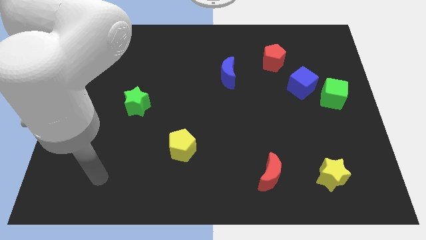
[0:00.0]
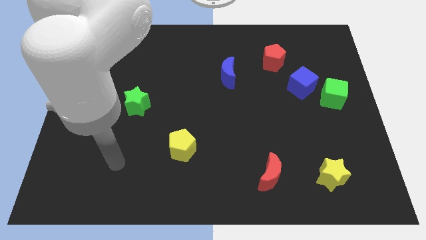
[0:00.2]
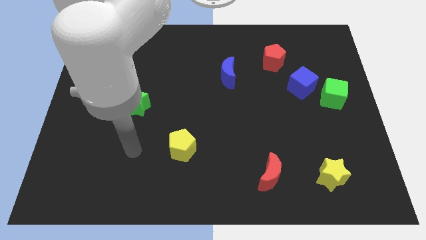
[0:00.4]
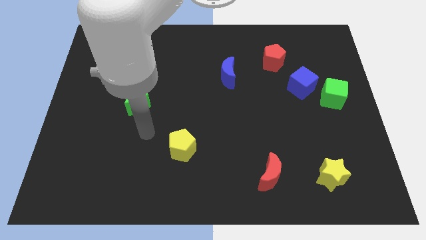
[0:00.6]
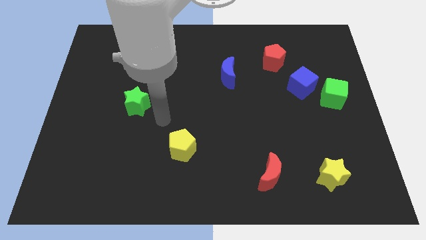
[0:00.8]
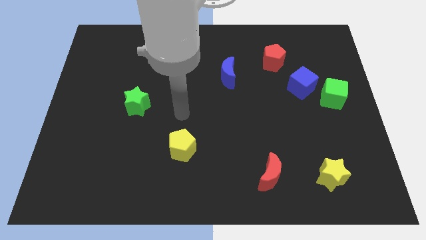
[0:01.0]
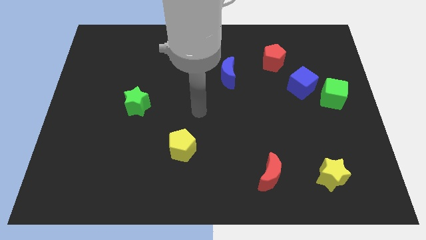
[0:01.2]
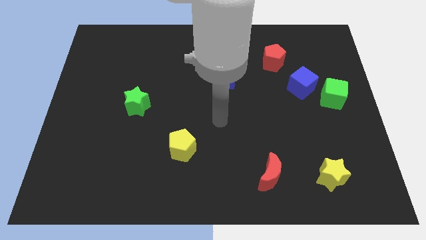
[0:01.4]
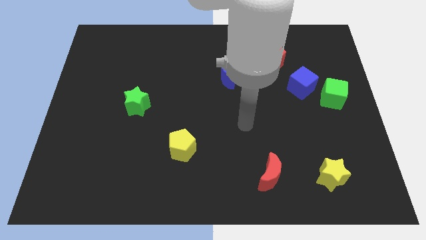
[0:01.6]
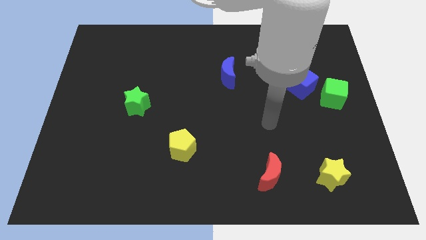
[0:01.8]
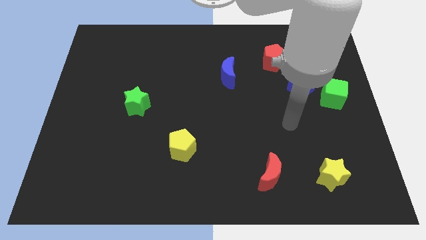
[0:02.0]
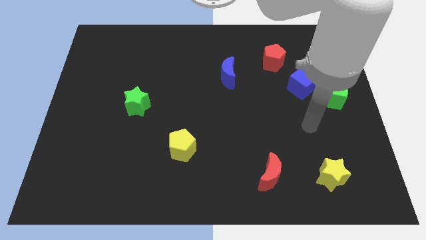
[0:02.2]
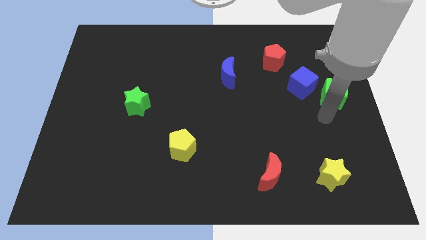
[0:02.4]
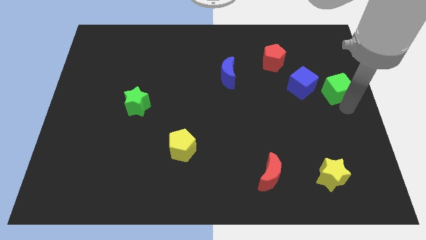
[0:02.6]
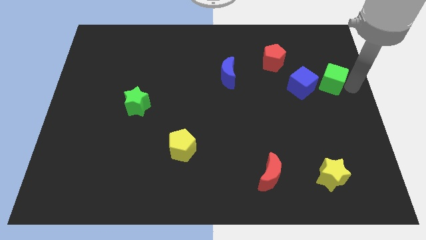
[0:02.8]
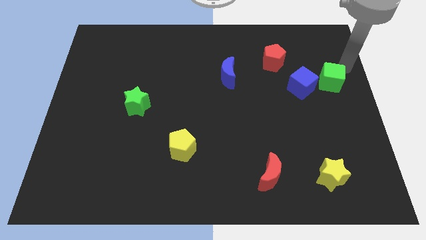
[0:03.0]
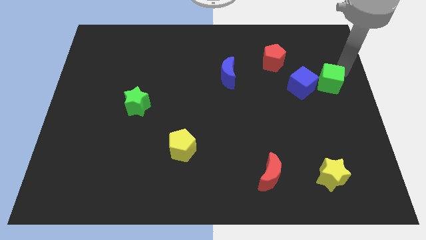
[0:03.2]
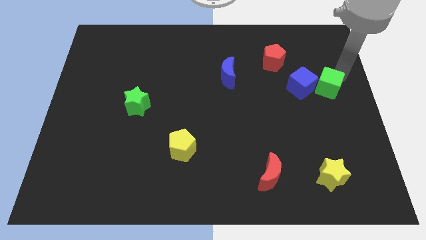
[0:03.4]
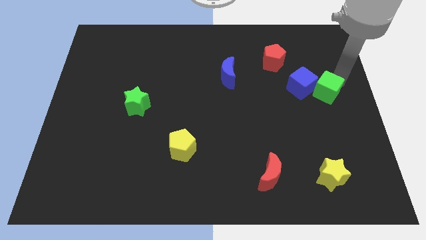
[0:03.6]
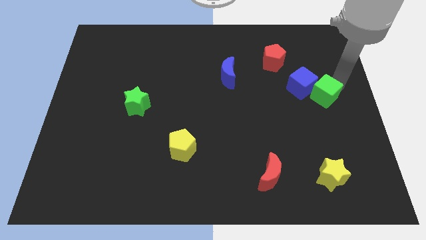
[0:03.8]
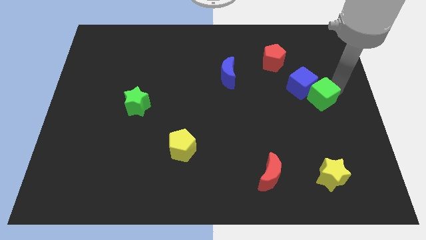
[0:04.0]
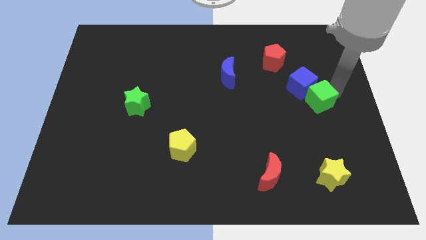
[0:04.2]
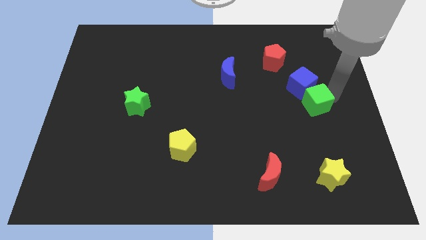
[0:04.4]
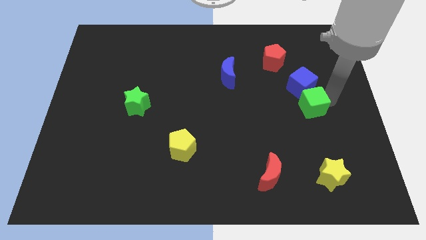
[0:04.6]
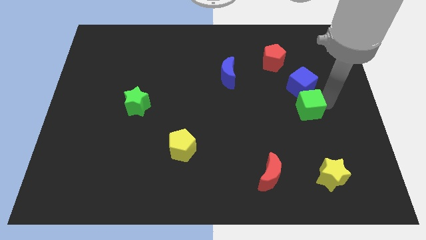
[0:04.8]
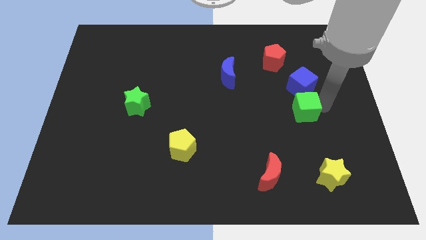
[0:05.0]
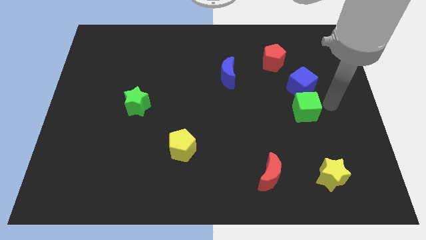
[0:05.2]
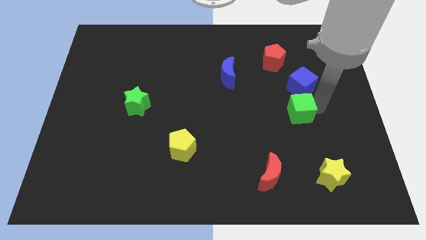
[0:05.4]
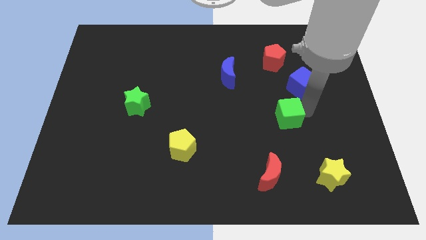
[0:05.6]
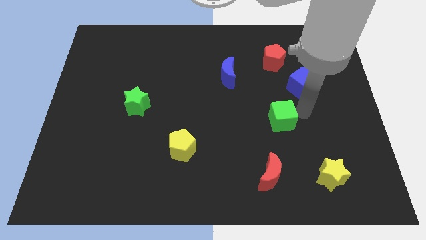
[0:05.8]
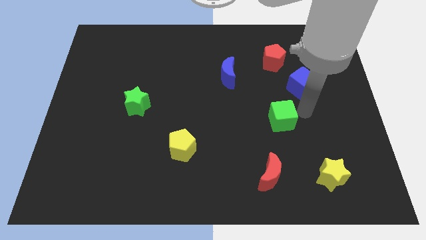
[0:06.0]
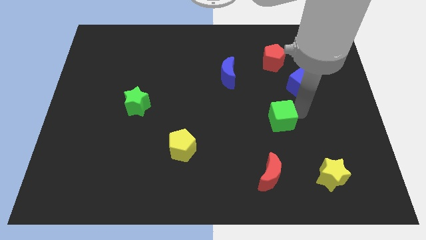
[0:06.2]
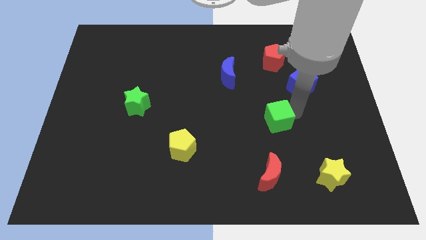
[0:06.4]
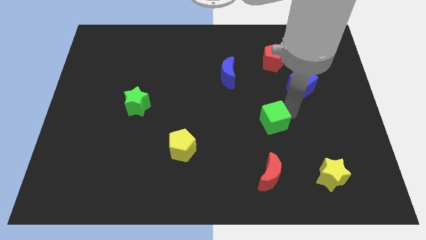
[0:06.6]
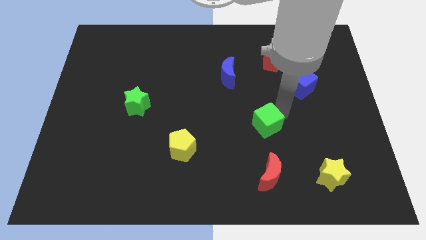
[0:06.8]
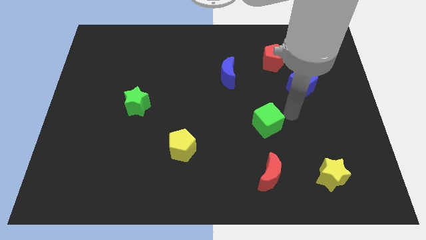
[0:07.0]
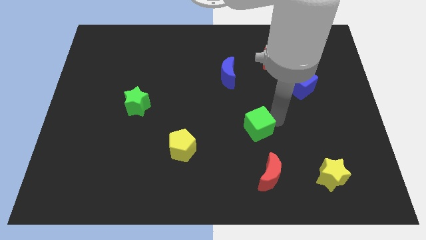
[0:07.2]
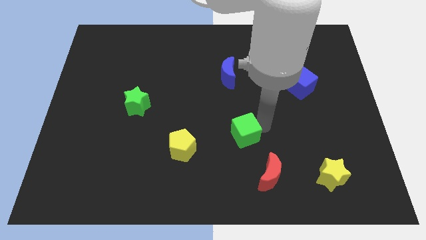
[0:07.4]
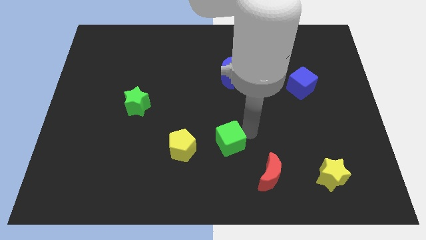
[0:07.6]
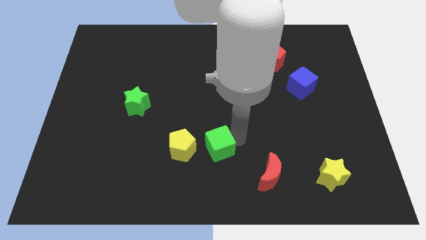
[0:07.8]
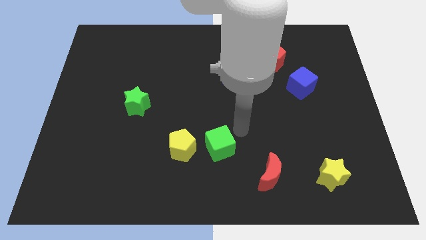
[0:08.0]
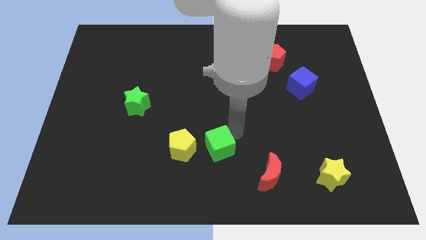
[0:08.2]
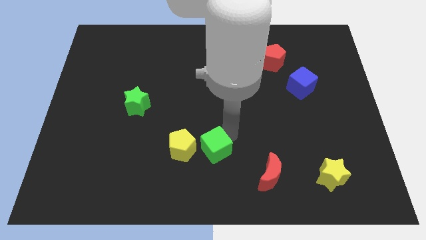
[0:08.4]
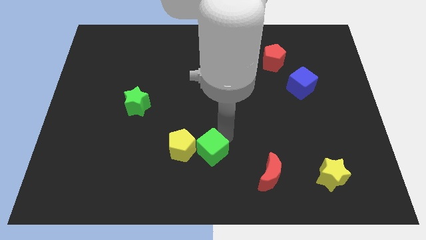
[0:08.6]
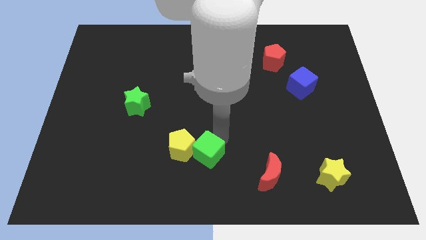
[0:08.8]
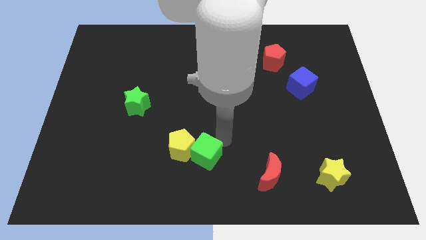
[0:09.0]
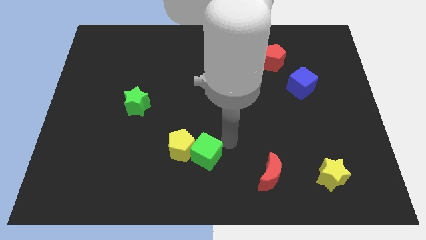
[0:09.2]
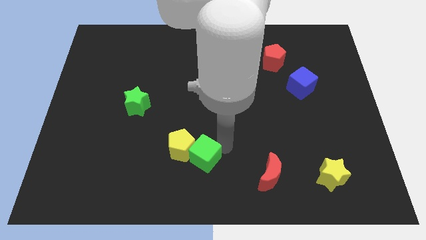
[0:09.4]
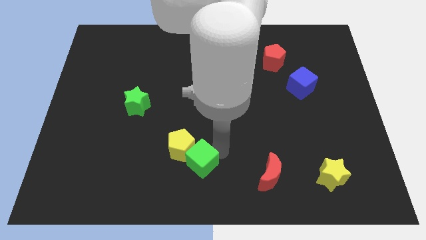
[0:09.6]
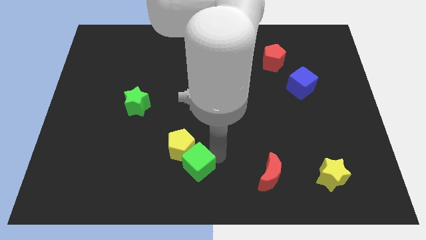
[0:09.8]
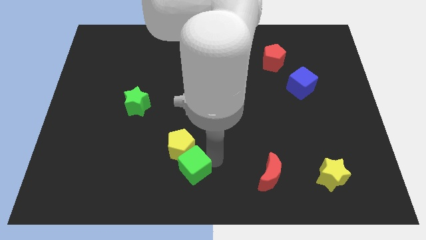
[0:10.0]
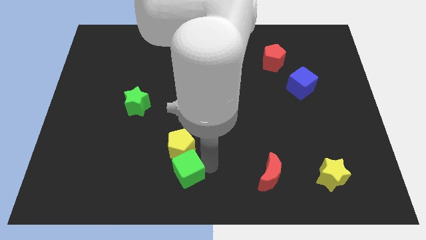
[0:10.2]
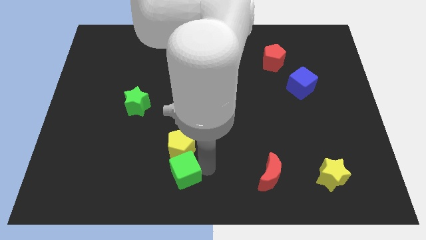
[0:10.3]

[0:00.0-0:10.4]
slide the green cube to the bottom left of the yellow pentagon

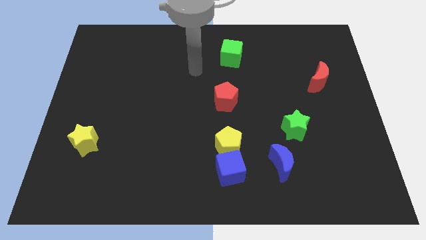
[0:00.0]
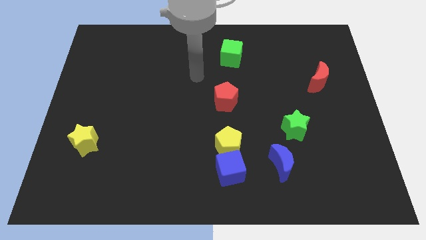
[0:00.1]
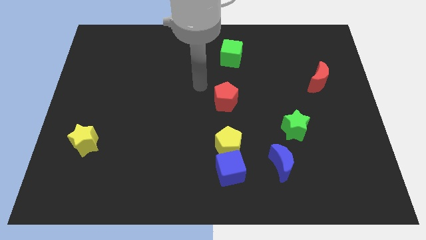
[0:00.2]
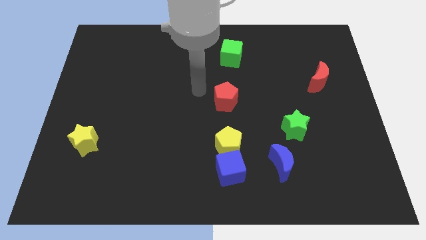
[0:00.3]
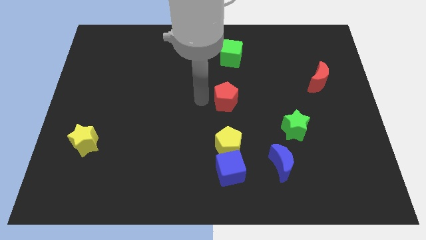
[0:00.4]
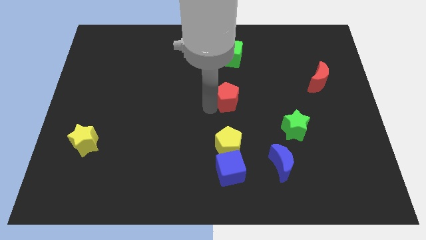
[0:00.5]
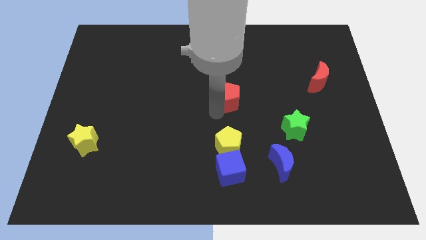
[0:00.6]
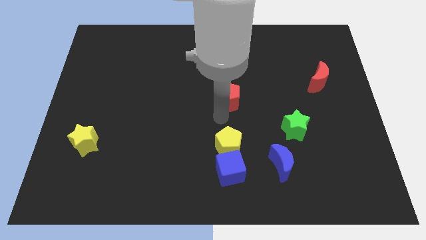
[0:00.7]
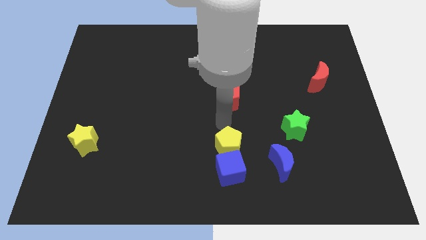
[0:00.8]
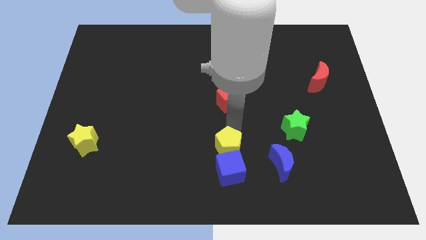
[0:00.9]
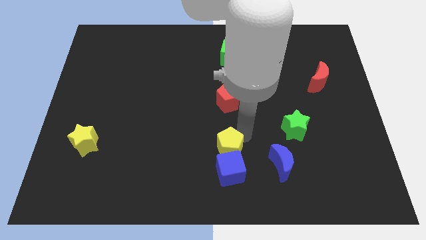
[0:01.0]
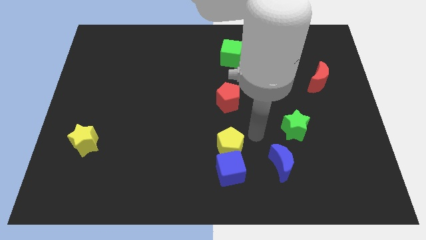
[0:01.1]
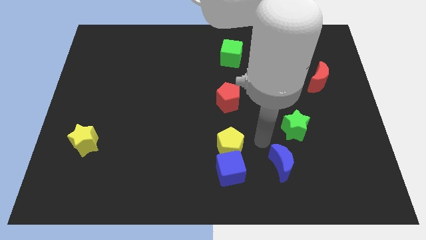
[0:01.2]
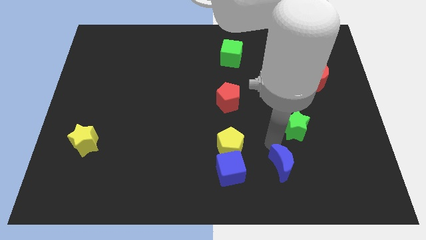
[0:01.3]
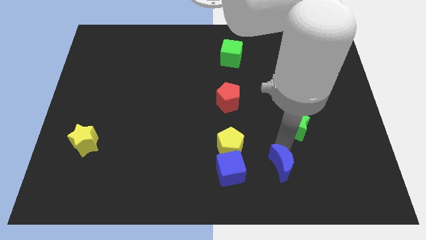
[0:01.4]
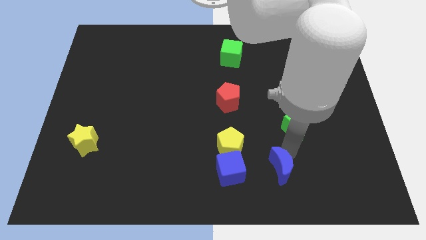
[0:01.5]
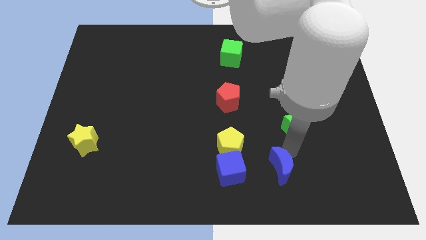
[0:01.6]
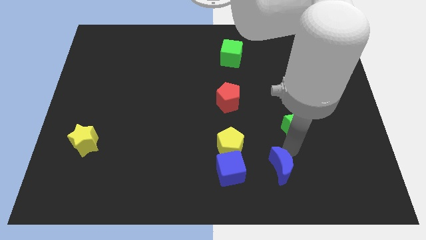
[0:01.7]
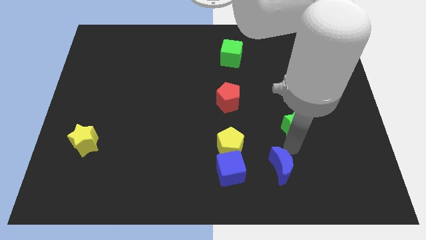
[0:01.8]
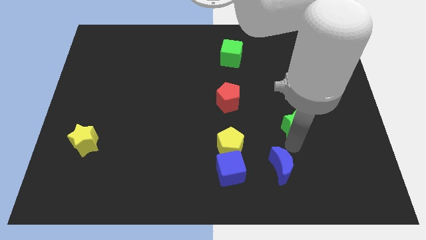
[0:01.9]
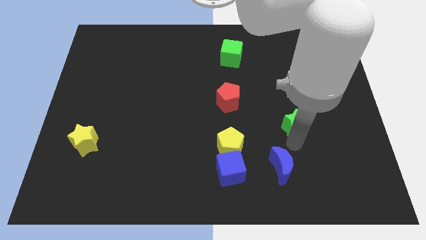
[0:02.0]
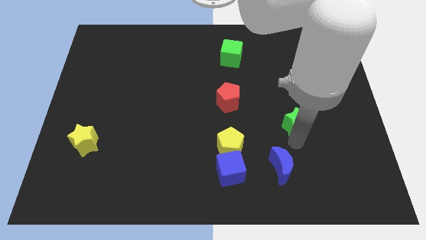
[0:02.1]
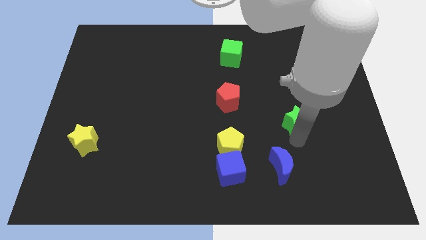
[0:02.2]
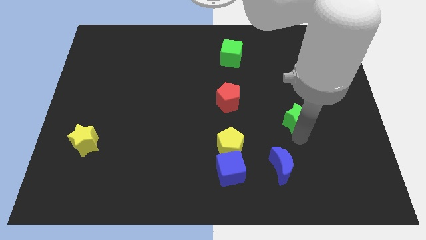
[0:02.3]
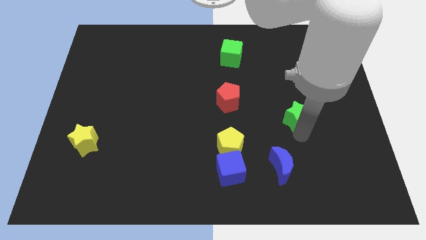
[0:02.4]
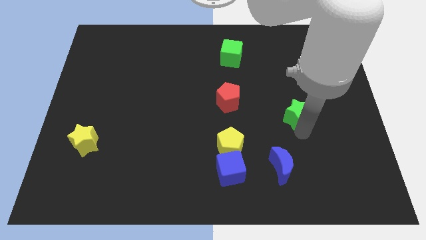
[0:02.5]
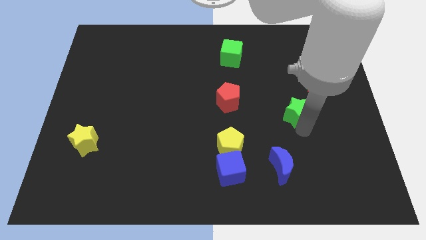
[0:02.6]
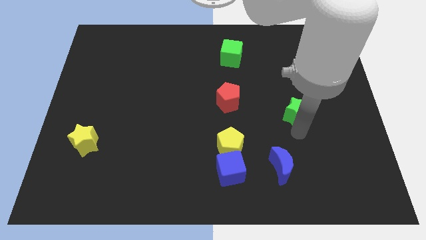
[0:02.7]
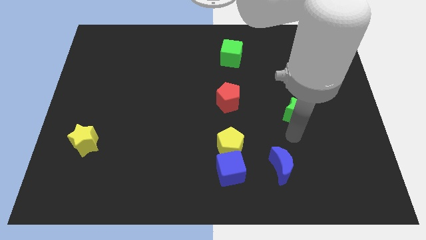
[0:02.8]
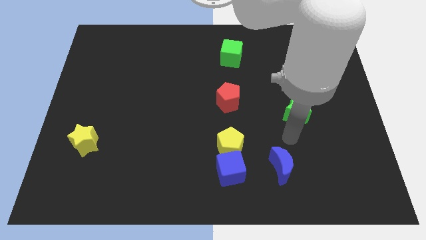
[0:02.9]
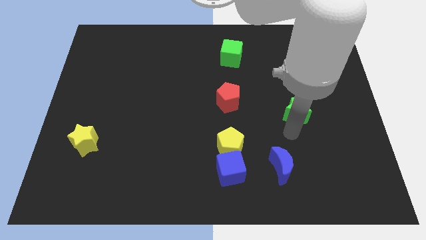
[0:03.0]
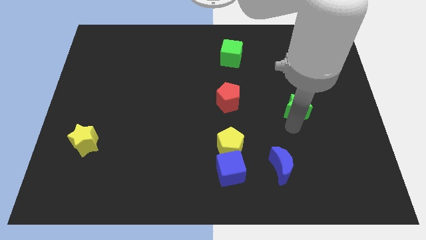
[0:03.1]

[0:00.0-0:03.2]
put the green star to the bottom left side of the red moon
